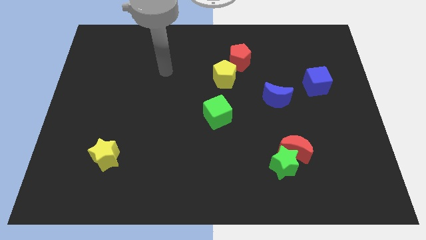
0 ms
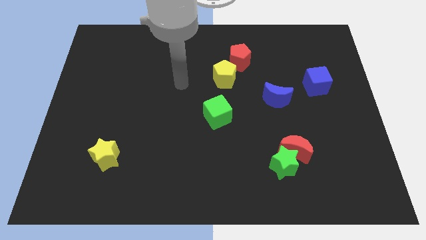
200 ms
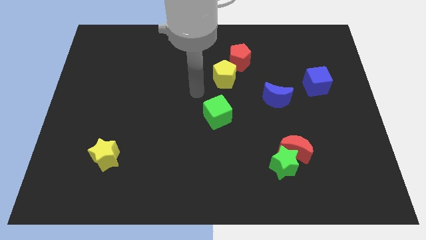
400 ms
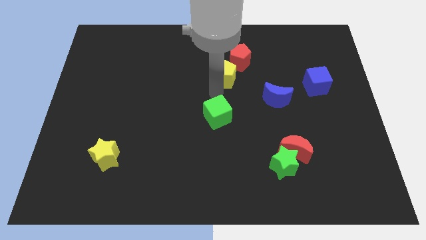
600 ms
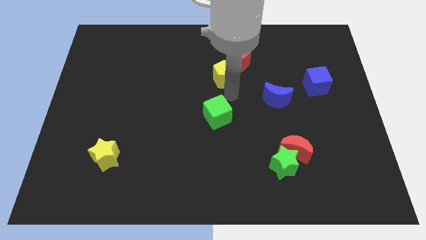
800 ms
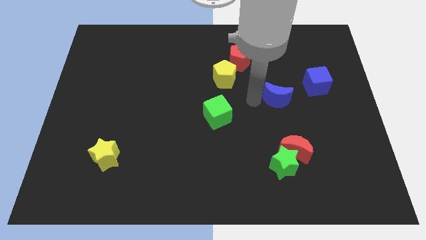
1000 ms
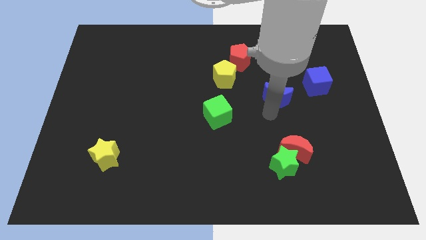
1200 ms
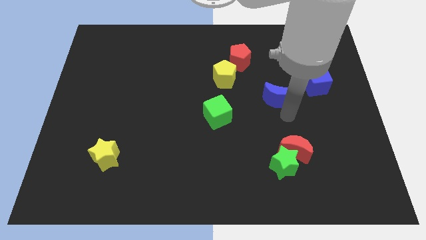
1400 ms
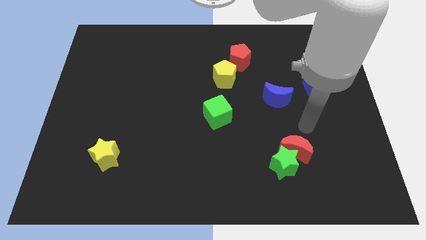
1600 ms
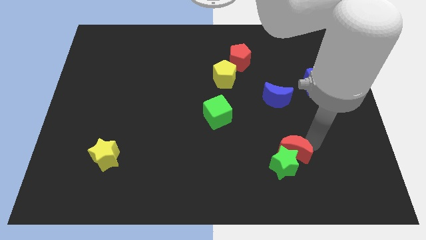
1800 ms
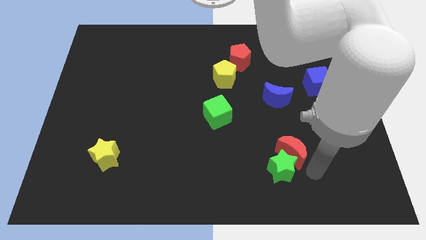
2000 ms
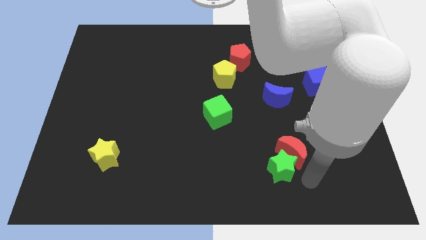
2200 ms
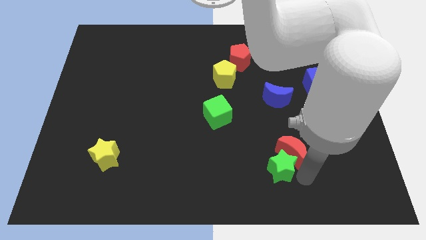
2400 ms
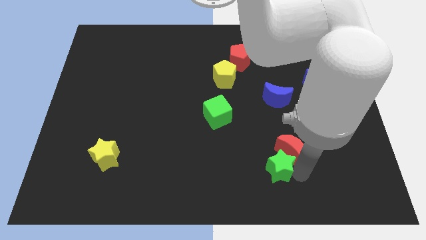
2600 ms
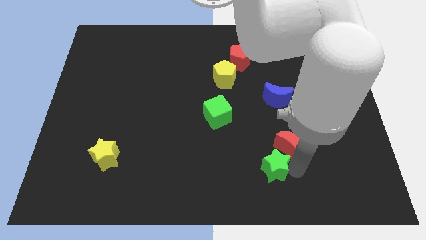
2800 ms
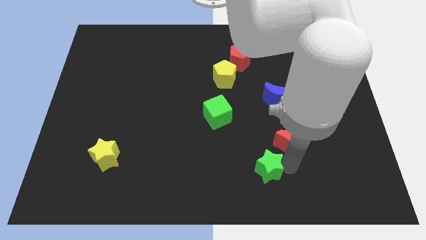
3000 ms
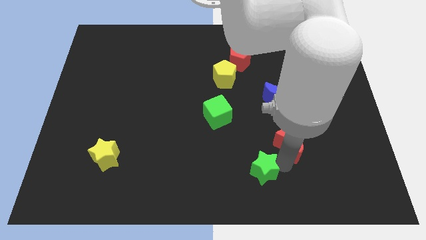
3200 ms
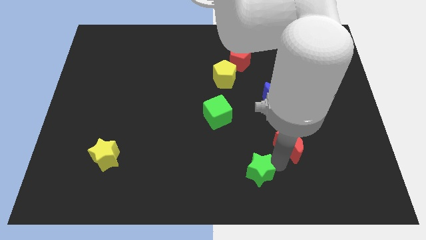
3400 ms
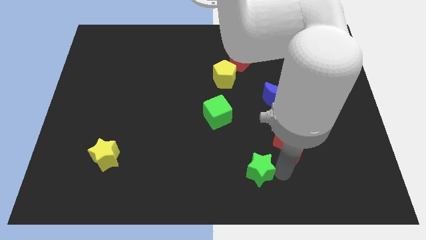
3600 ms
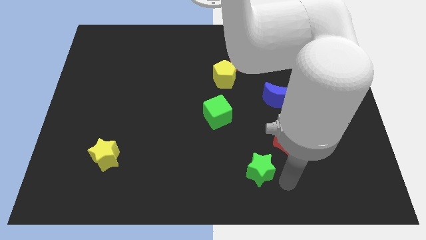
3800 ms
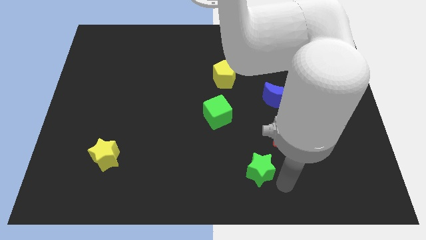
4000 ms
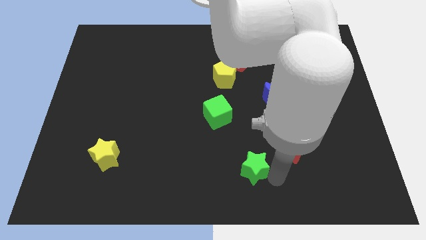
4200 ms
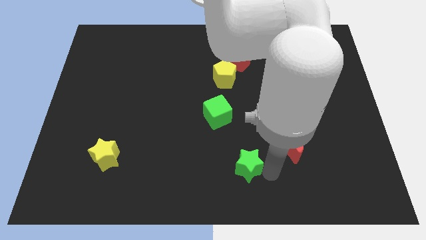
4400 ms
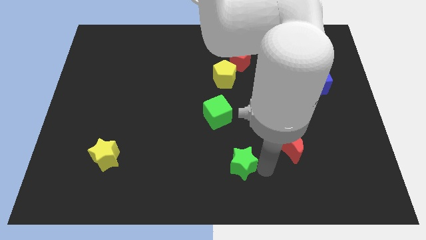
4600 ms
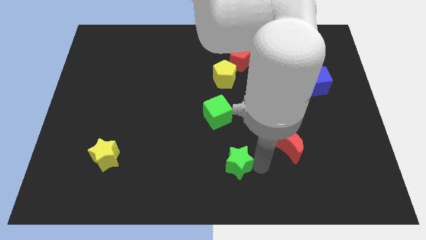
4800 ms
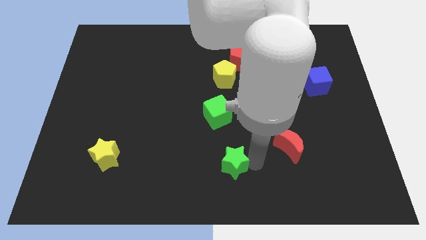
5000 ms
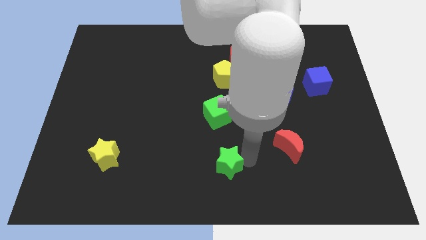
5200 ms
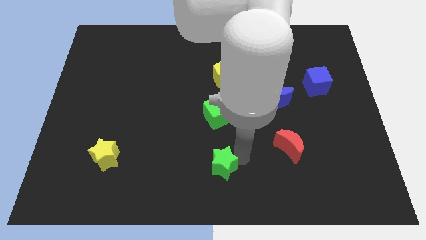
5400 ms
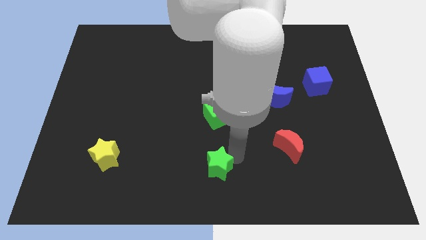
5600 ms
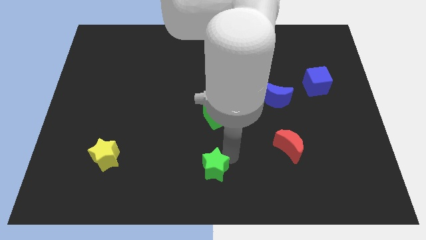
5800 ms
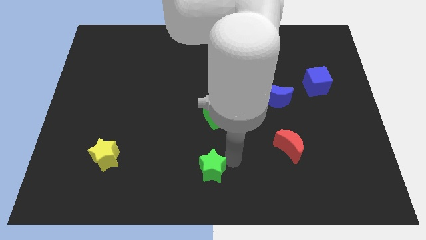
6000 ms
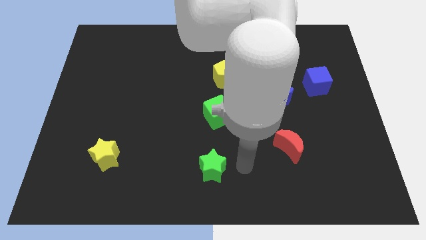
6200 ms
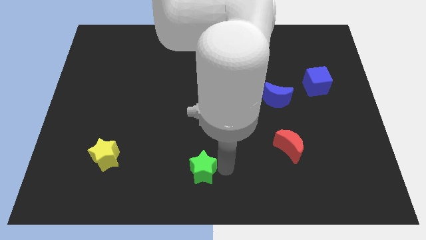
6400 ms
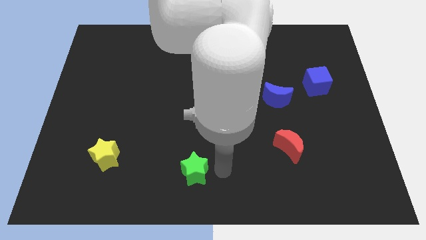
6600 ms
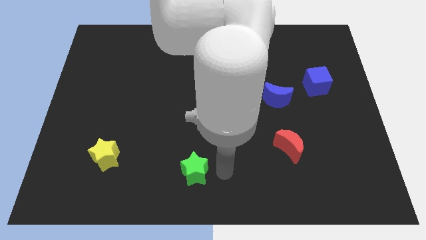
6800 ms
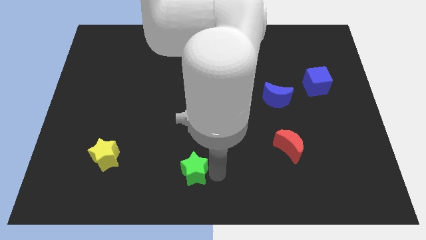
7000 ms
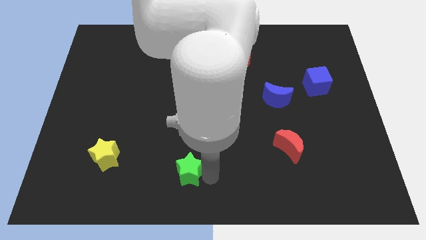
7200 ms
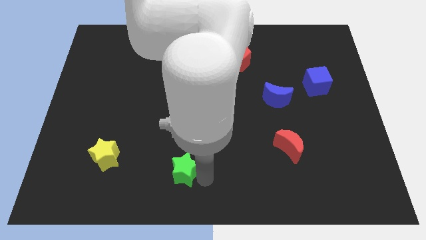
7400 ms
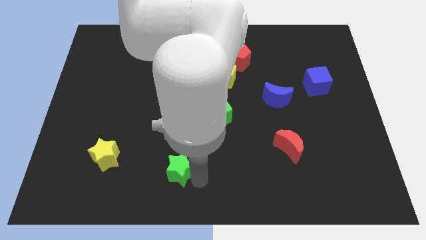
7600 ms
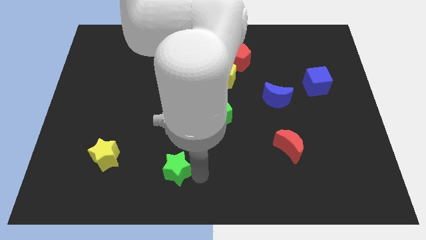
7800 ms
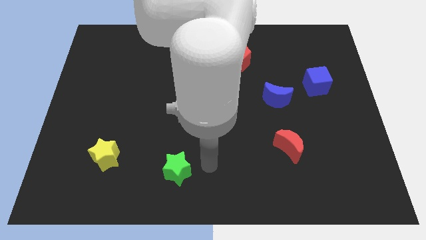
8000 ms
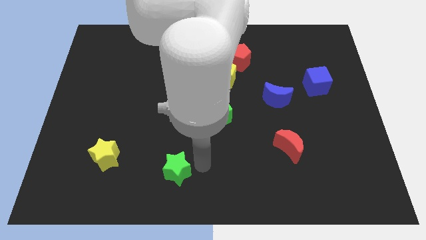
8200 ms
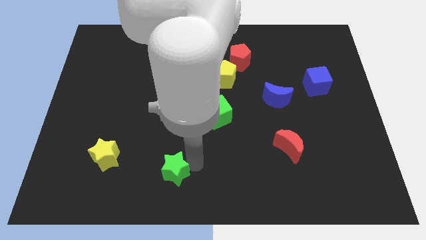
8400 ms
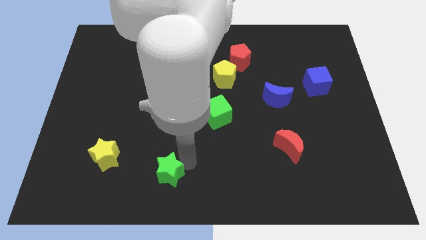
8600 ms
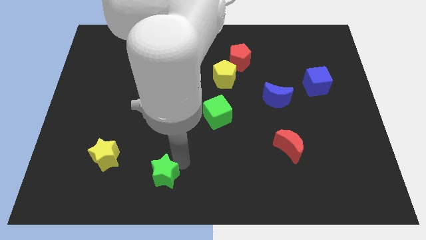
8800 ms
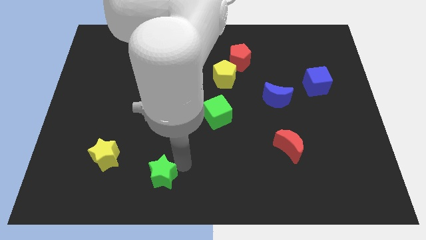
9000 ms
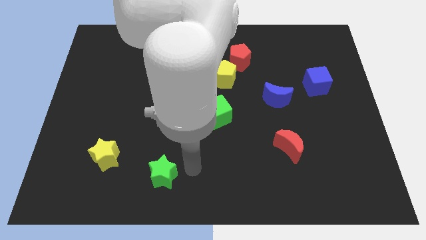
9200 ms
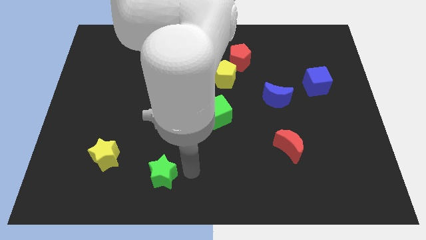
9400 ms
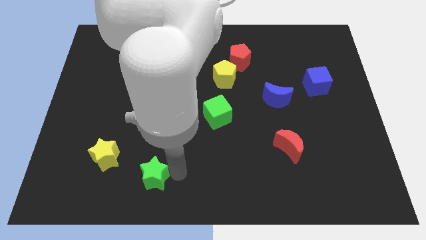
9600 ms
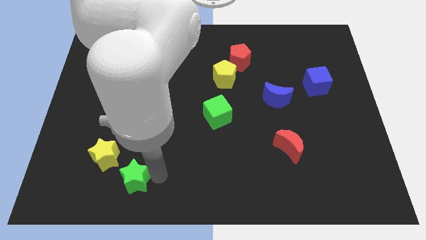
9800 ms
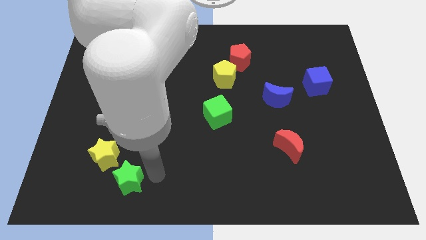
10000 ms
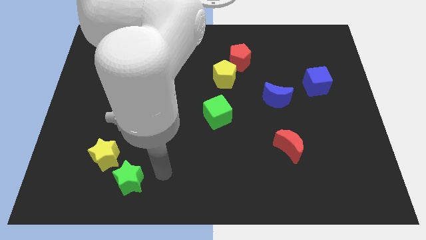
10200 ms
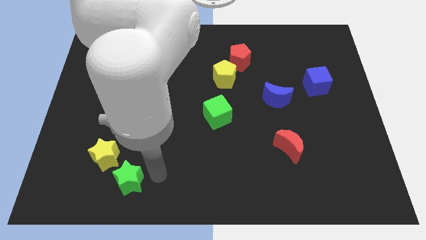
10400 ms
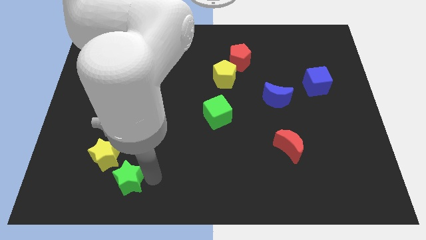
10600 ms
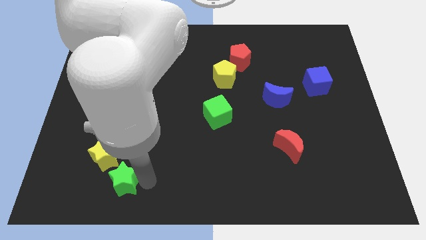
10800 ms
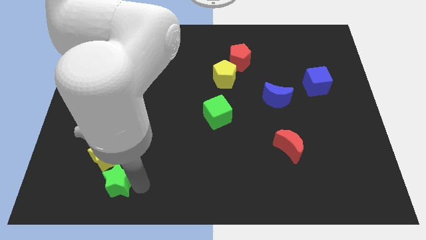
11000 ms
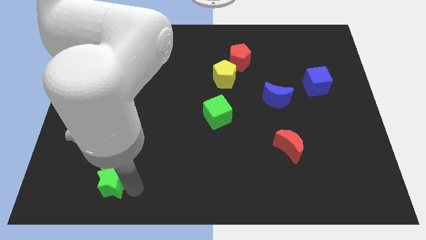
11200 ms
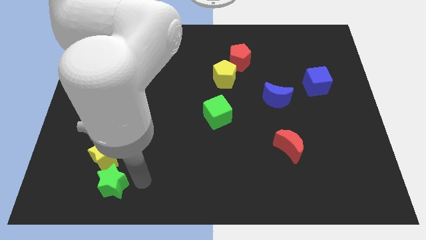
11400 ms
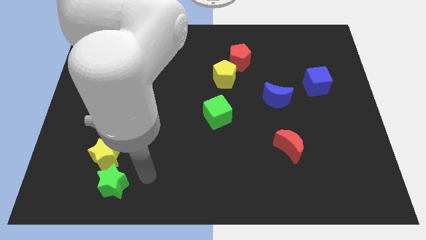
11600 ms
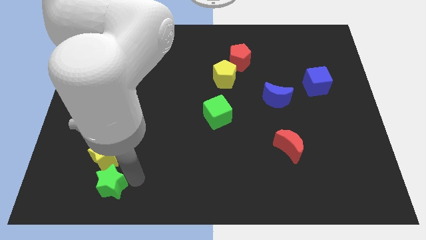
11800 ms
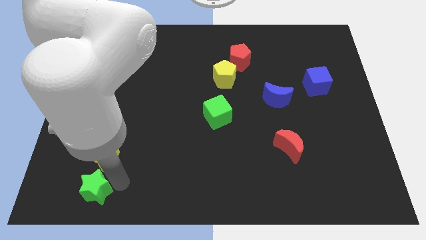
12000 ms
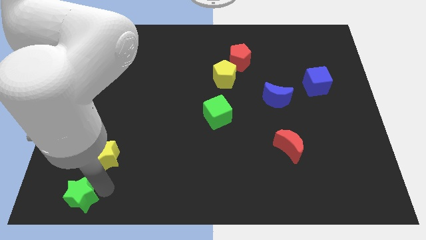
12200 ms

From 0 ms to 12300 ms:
slide the green star to the lower left corner
